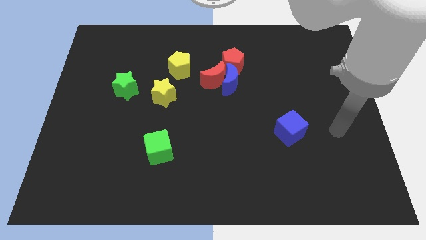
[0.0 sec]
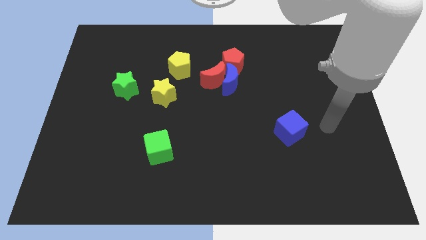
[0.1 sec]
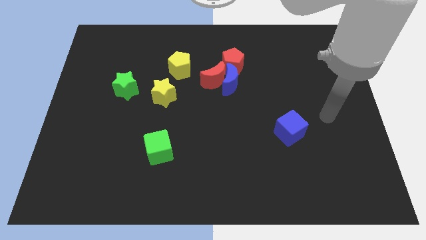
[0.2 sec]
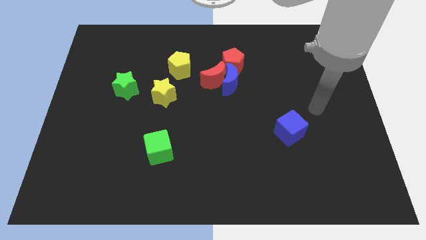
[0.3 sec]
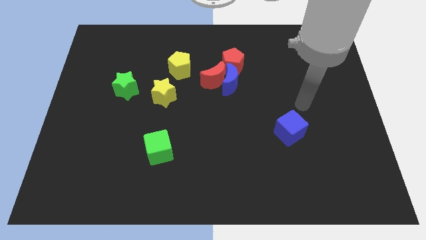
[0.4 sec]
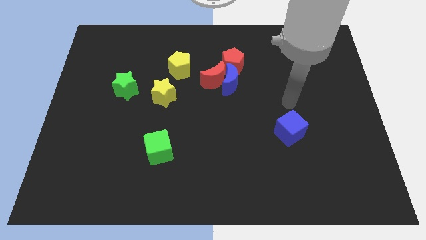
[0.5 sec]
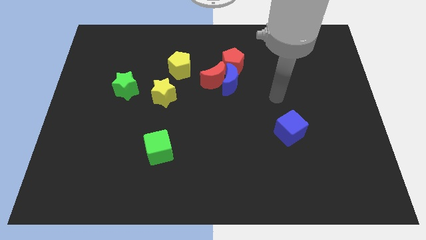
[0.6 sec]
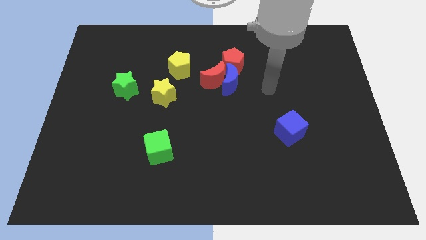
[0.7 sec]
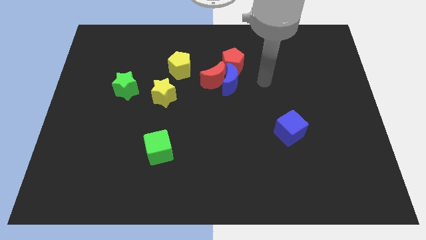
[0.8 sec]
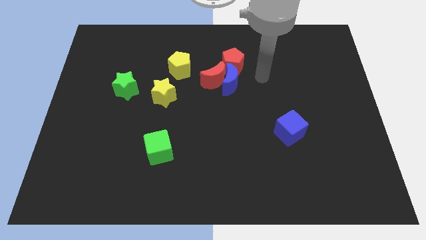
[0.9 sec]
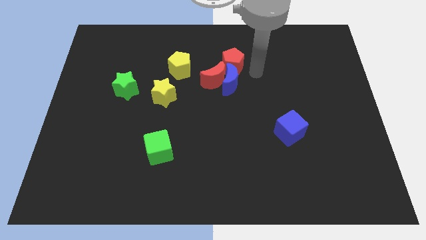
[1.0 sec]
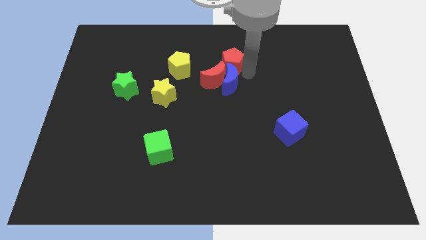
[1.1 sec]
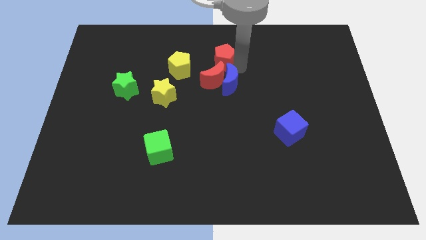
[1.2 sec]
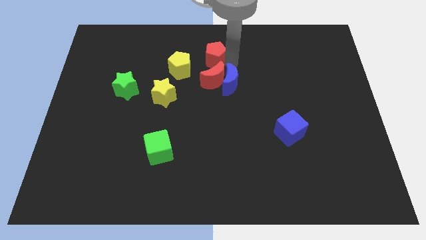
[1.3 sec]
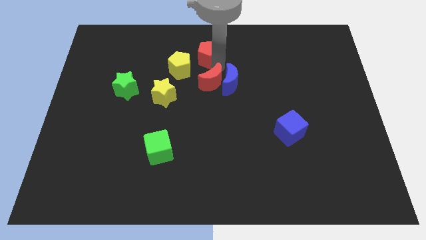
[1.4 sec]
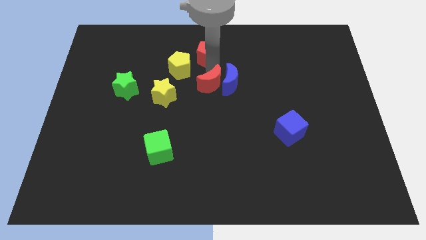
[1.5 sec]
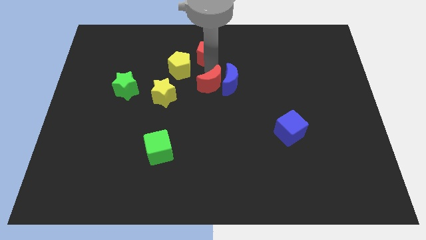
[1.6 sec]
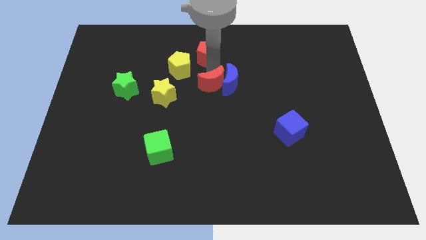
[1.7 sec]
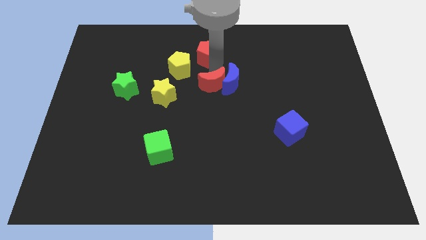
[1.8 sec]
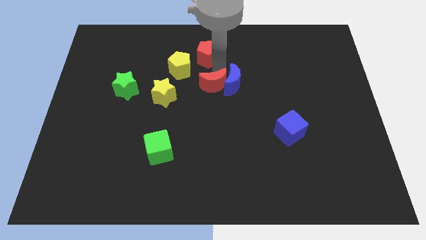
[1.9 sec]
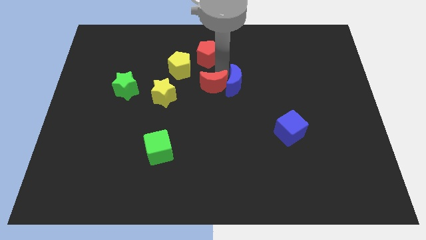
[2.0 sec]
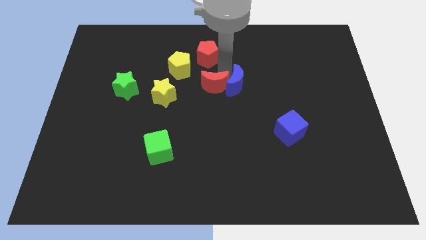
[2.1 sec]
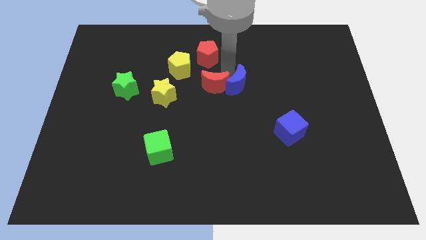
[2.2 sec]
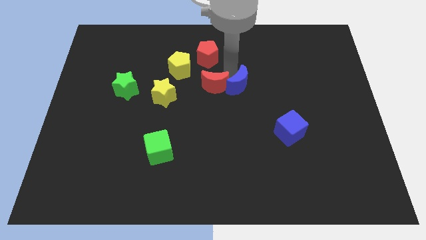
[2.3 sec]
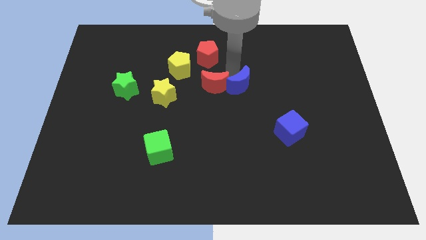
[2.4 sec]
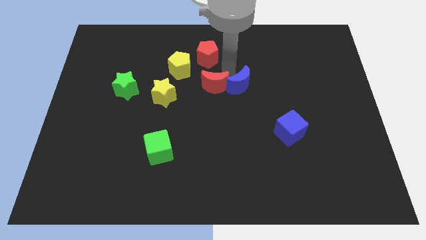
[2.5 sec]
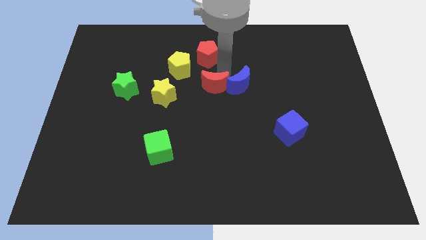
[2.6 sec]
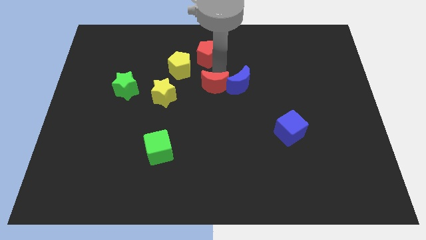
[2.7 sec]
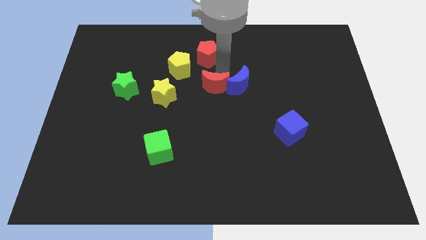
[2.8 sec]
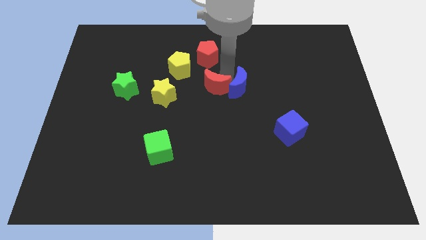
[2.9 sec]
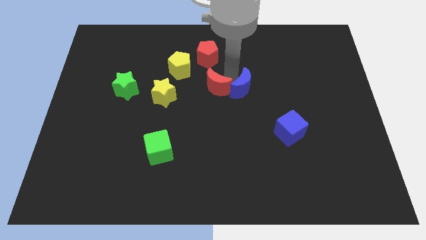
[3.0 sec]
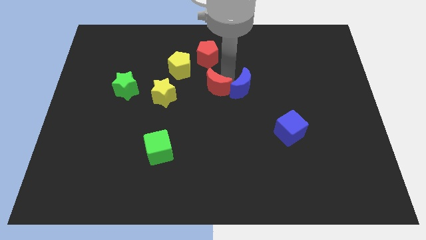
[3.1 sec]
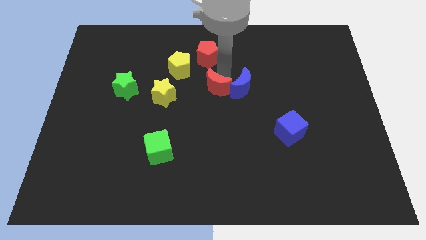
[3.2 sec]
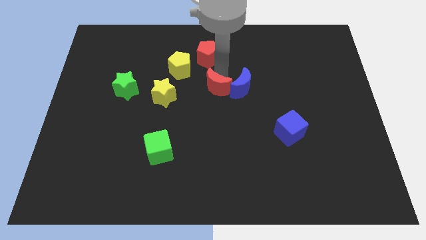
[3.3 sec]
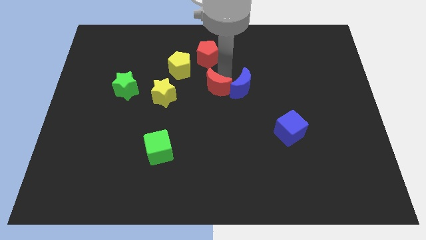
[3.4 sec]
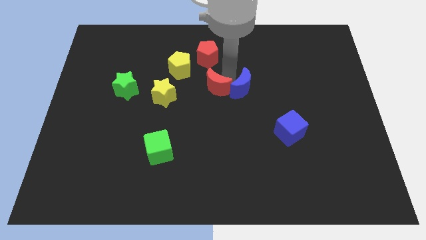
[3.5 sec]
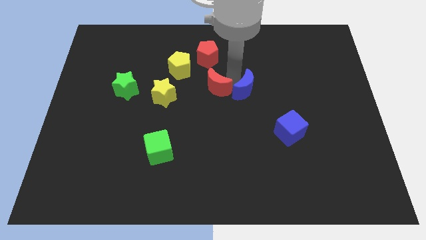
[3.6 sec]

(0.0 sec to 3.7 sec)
move the blue moon away from the red moon and red pentagon

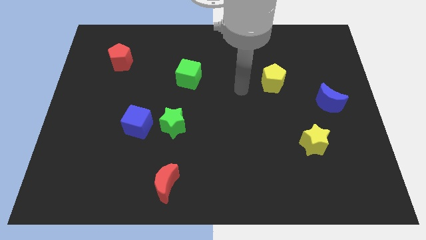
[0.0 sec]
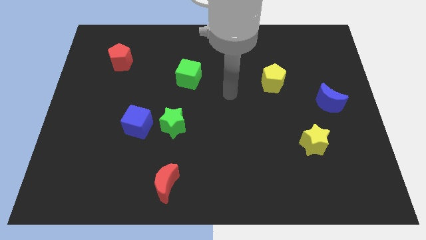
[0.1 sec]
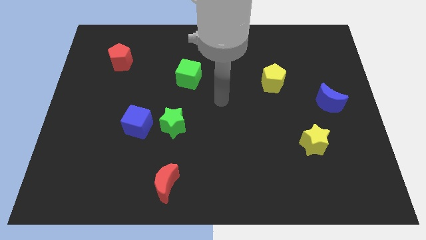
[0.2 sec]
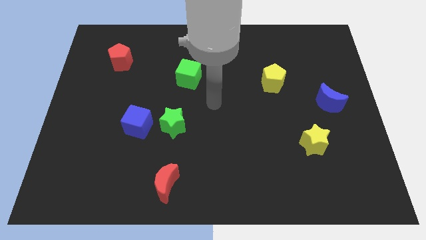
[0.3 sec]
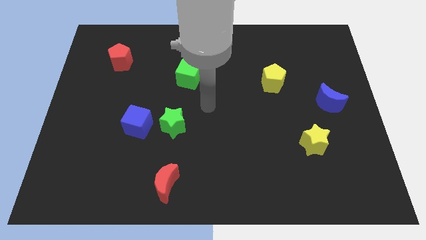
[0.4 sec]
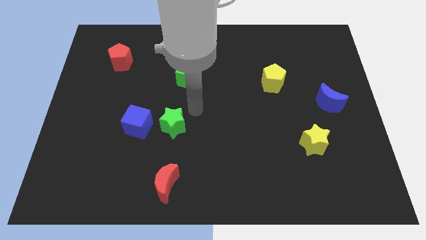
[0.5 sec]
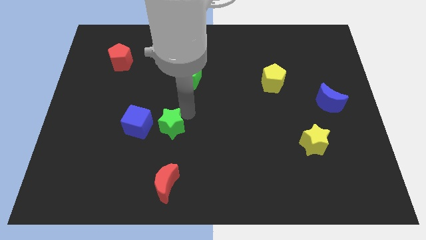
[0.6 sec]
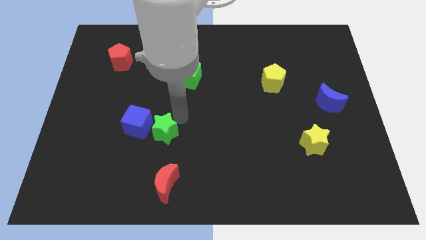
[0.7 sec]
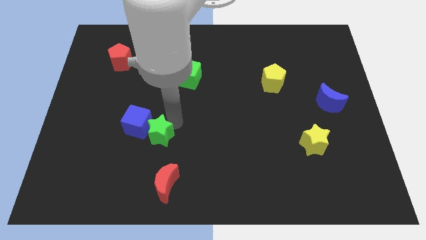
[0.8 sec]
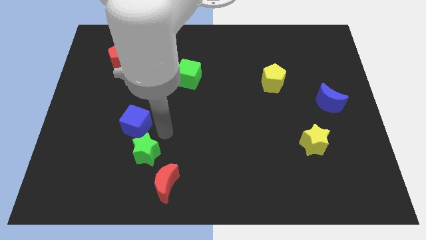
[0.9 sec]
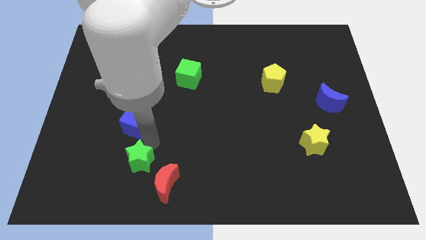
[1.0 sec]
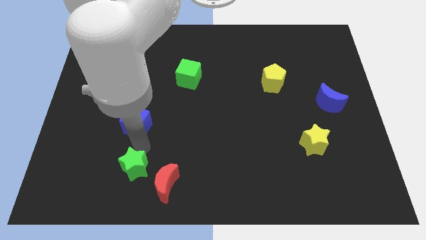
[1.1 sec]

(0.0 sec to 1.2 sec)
pull the blue cube apart from the green star

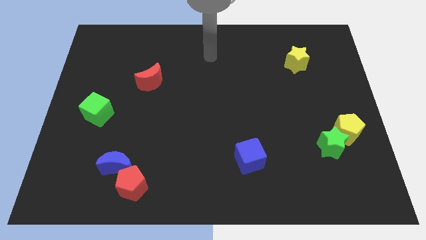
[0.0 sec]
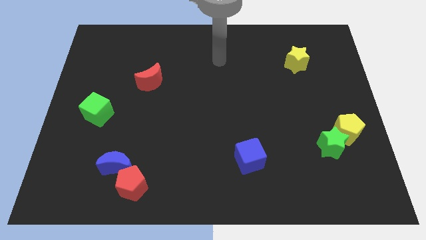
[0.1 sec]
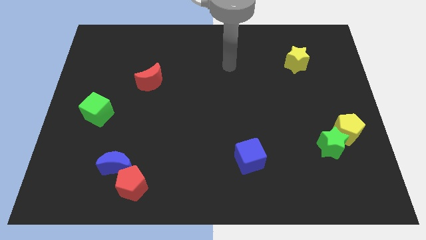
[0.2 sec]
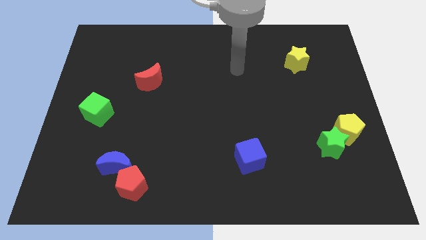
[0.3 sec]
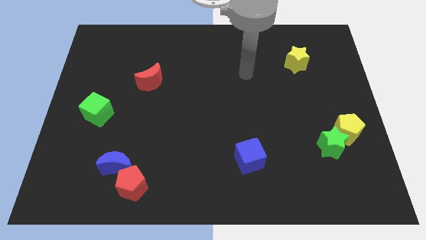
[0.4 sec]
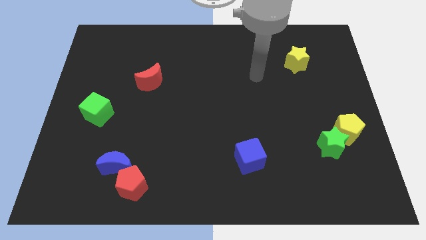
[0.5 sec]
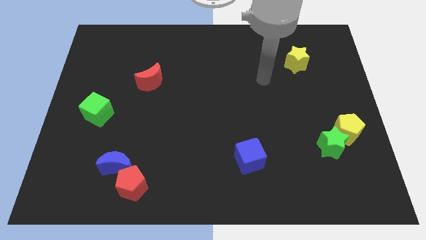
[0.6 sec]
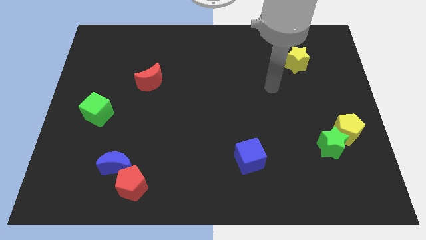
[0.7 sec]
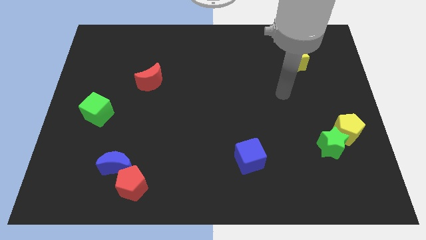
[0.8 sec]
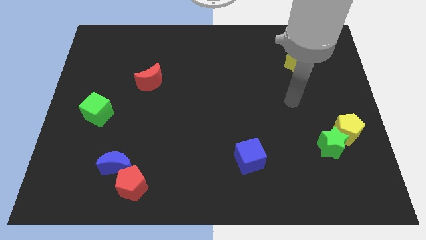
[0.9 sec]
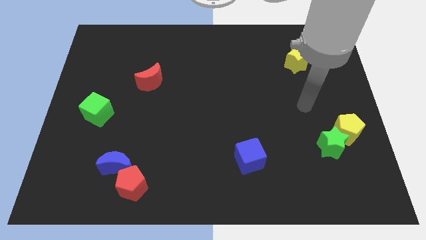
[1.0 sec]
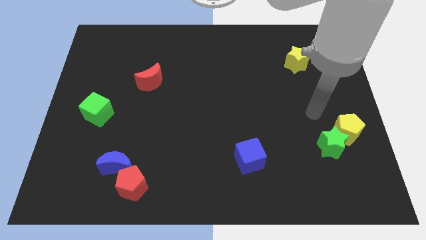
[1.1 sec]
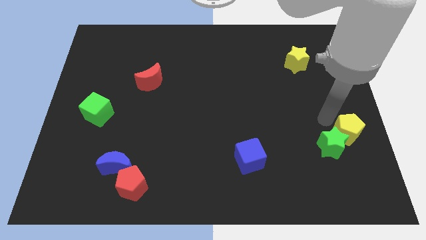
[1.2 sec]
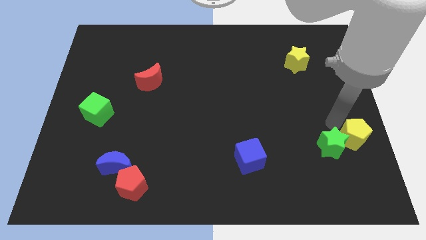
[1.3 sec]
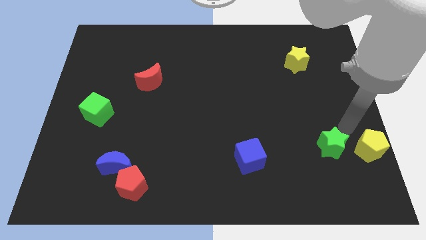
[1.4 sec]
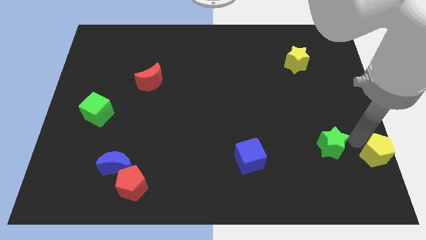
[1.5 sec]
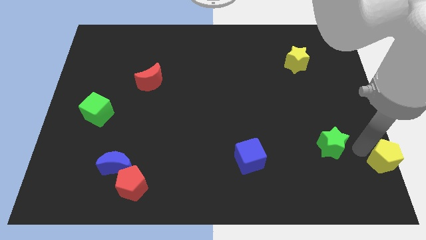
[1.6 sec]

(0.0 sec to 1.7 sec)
pull the green star apart from the yellow pentagon

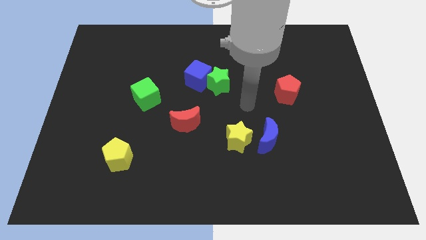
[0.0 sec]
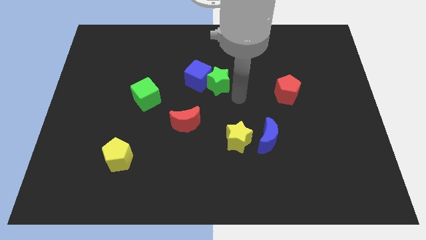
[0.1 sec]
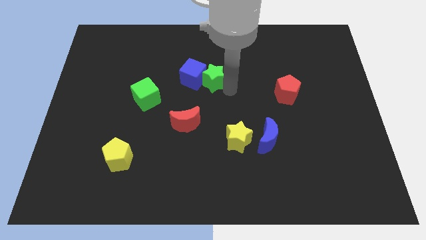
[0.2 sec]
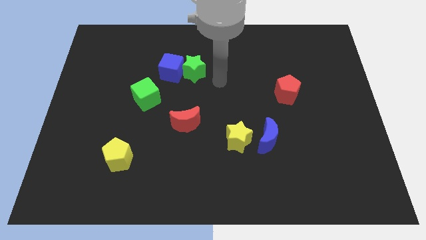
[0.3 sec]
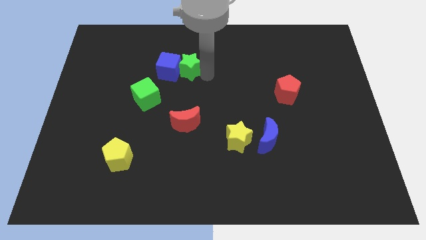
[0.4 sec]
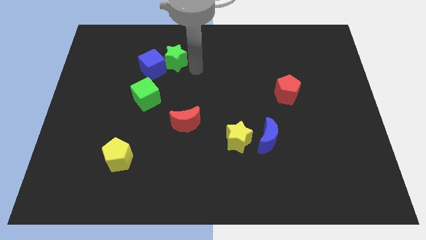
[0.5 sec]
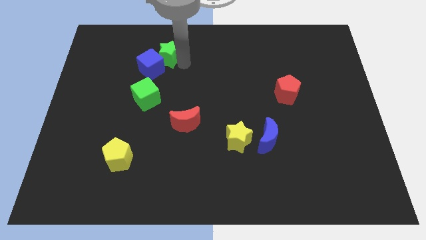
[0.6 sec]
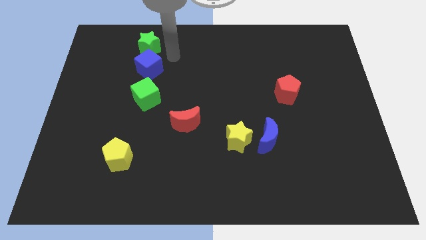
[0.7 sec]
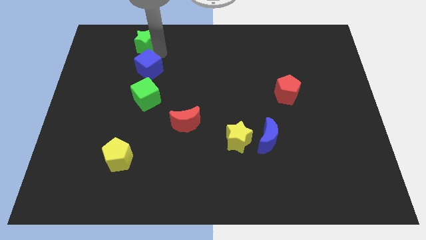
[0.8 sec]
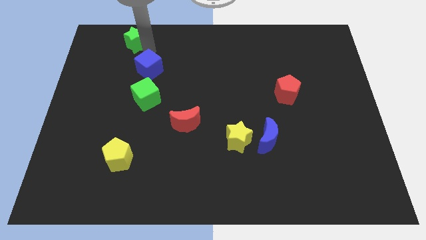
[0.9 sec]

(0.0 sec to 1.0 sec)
separate the blue cube from the green star

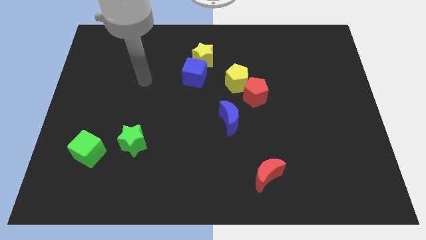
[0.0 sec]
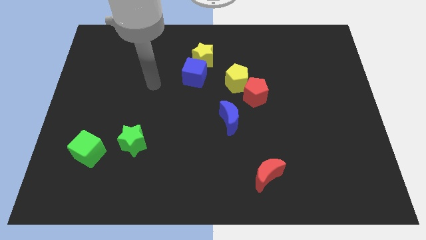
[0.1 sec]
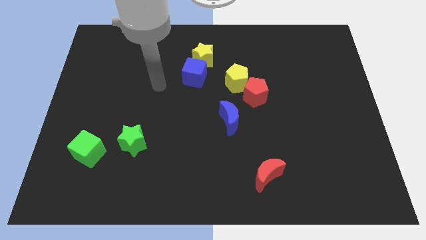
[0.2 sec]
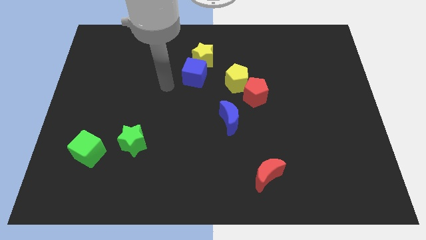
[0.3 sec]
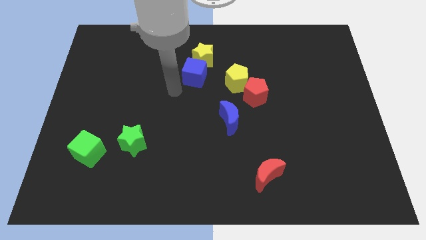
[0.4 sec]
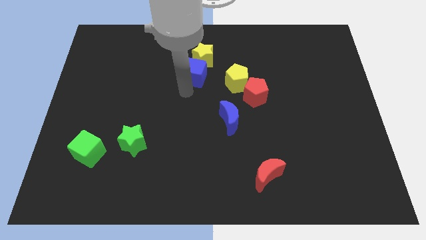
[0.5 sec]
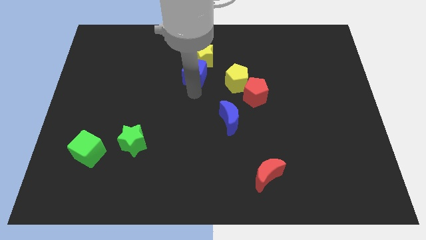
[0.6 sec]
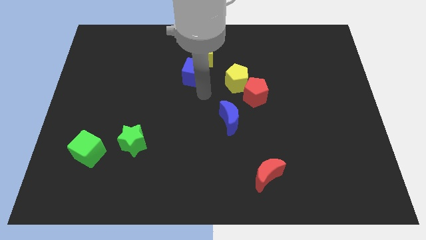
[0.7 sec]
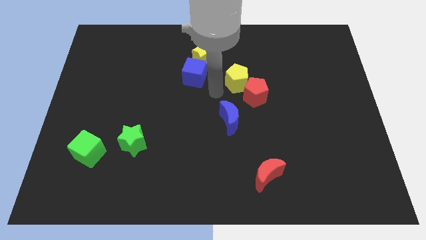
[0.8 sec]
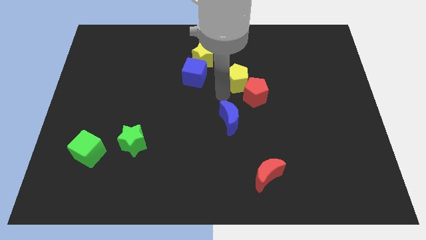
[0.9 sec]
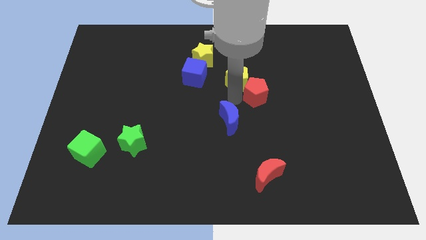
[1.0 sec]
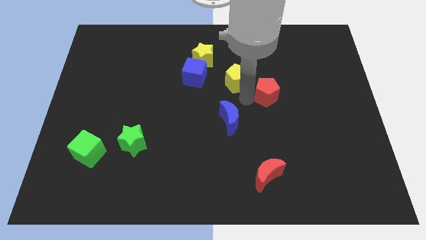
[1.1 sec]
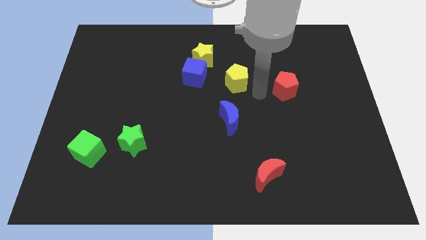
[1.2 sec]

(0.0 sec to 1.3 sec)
move the yellow pentagon away from the red pentagon

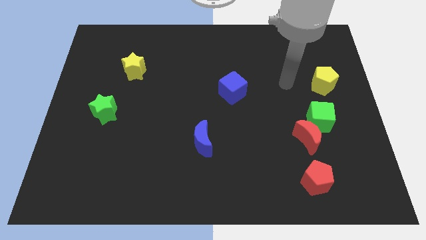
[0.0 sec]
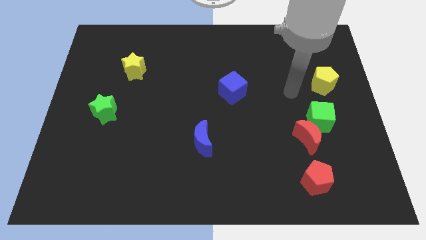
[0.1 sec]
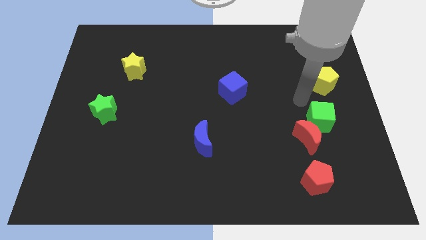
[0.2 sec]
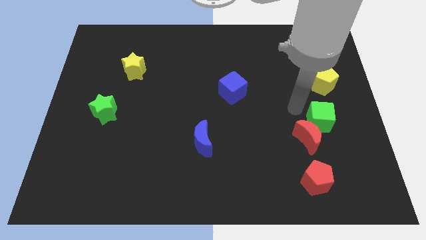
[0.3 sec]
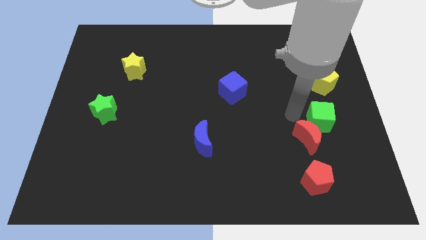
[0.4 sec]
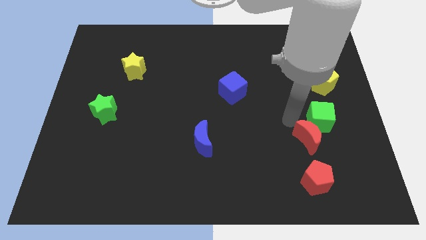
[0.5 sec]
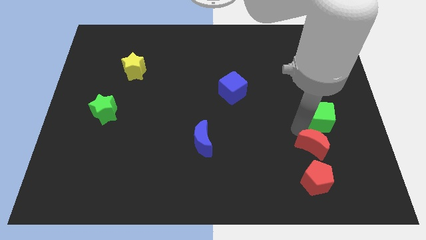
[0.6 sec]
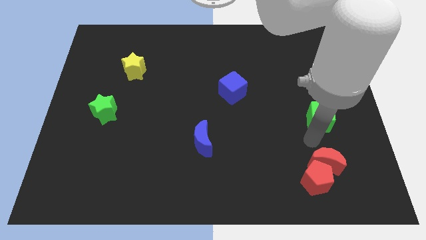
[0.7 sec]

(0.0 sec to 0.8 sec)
separate the green cube from the red moon
